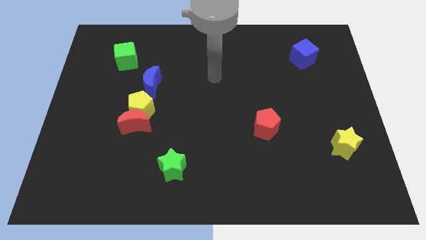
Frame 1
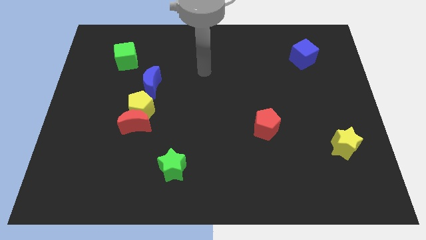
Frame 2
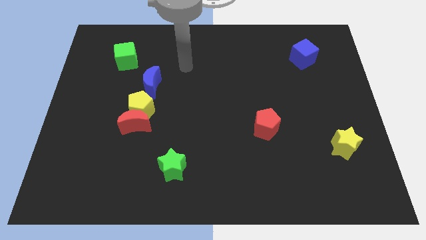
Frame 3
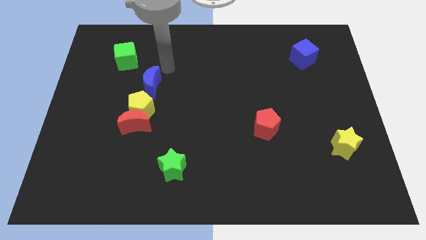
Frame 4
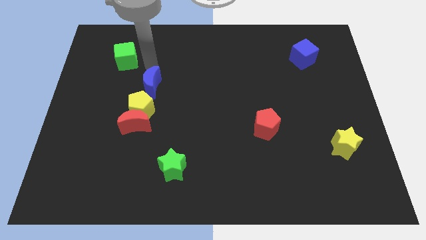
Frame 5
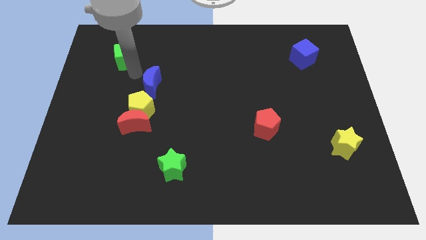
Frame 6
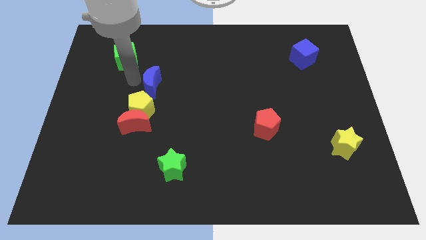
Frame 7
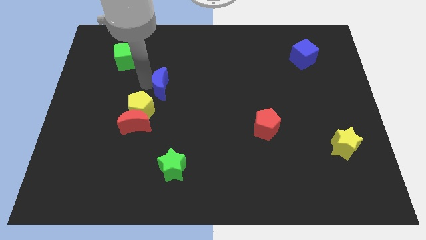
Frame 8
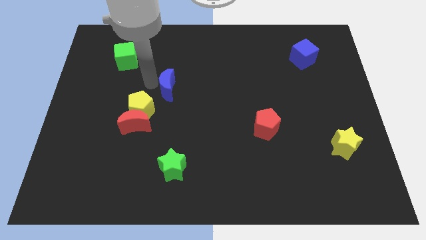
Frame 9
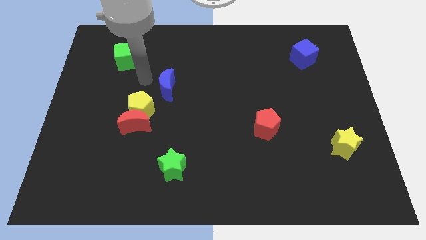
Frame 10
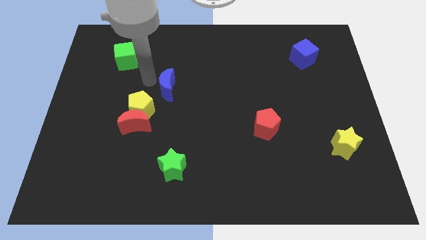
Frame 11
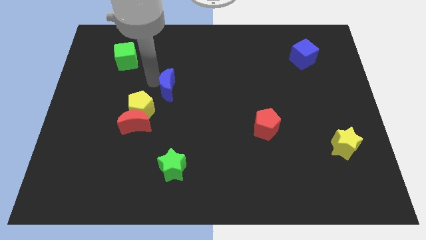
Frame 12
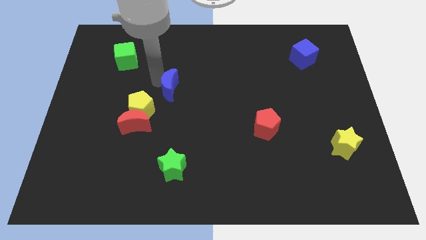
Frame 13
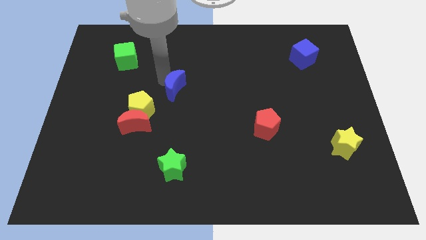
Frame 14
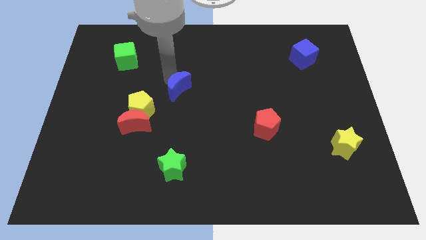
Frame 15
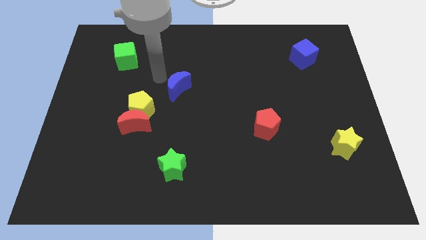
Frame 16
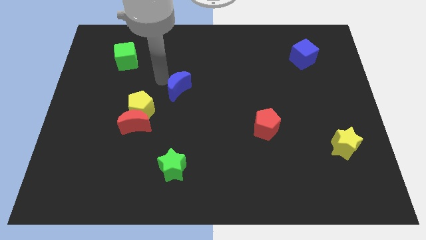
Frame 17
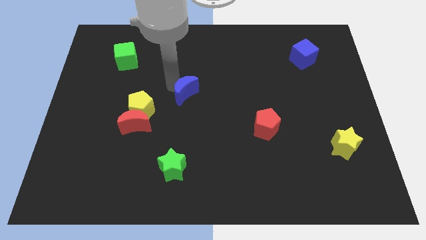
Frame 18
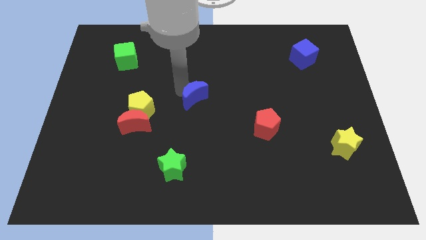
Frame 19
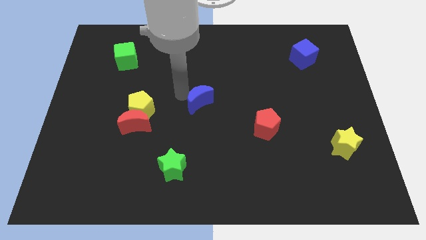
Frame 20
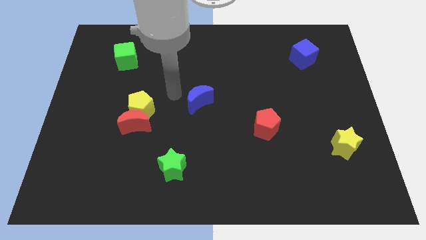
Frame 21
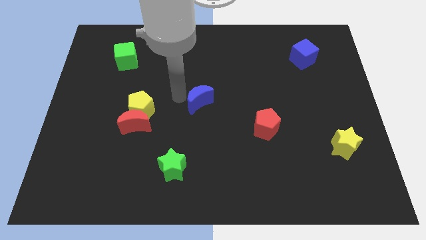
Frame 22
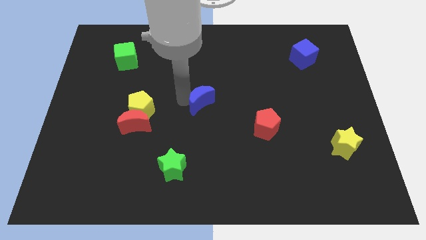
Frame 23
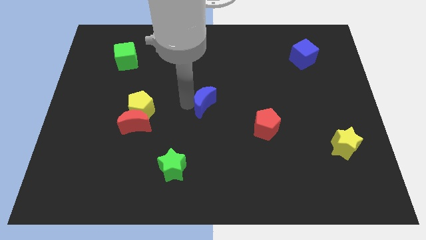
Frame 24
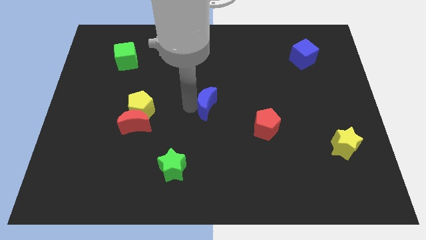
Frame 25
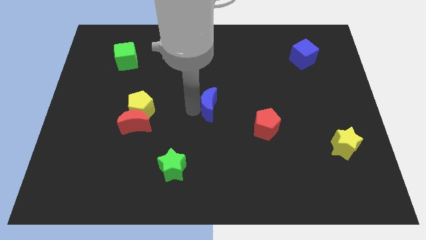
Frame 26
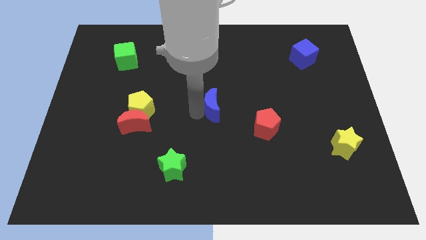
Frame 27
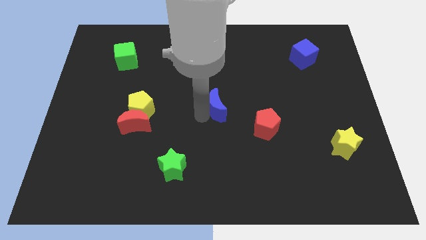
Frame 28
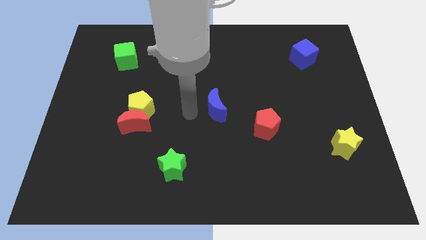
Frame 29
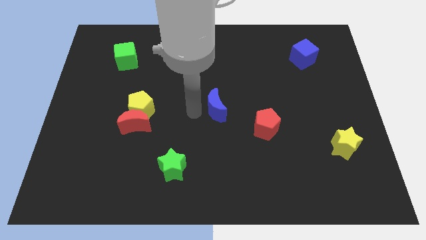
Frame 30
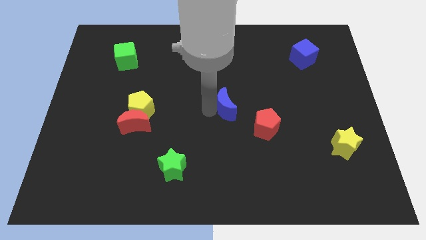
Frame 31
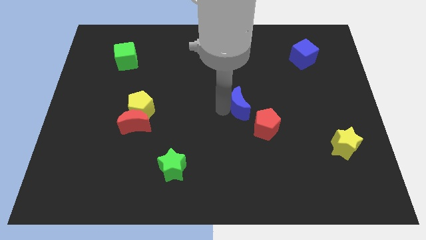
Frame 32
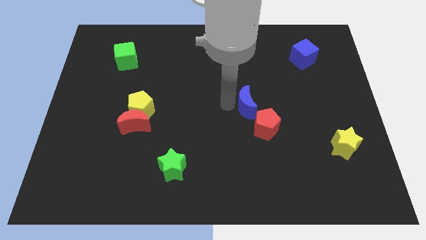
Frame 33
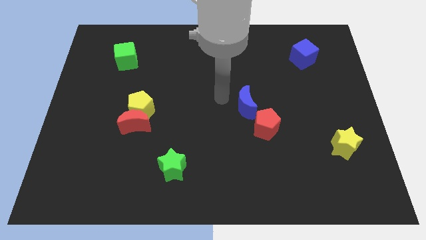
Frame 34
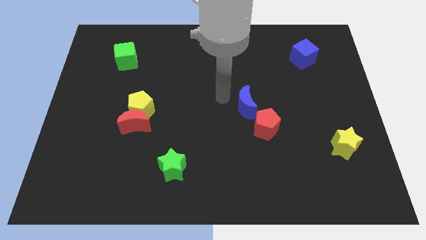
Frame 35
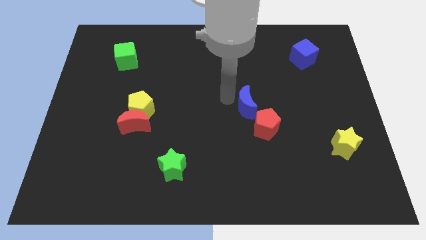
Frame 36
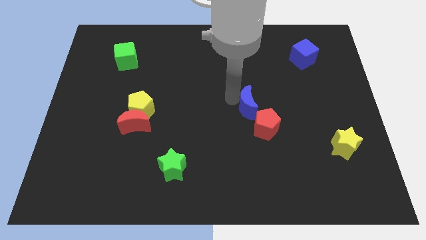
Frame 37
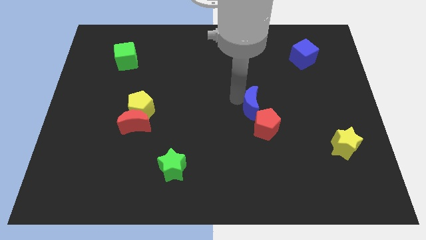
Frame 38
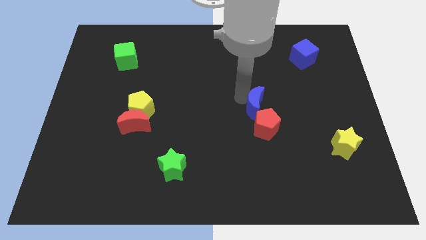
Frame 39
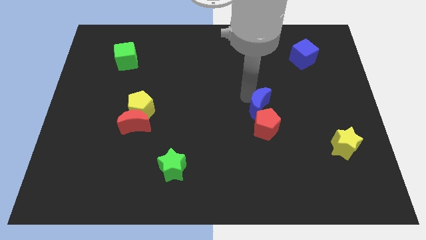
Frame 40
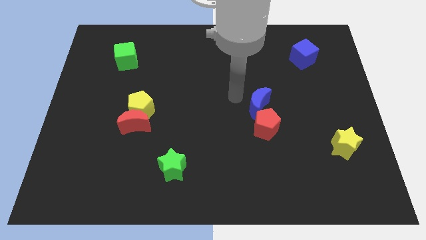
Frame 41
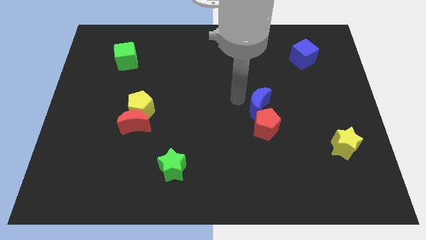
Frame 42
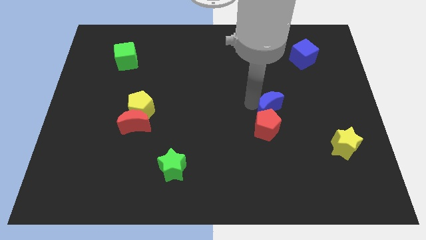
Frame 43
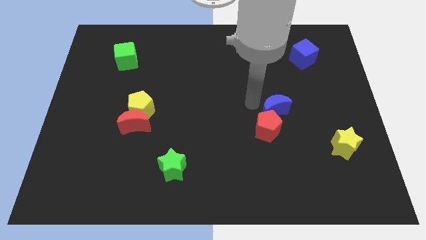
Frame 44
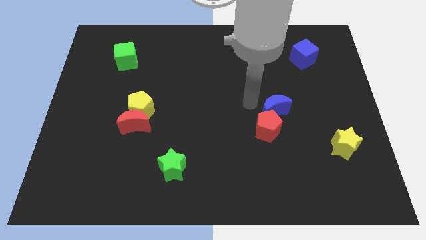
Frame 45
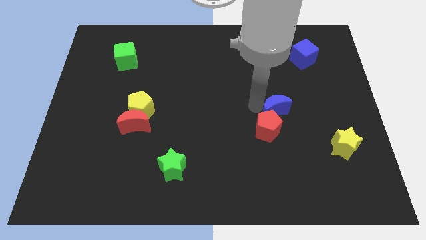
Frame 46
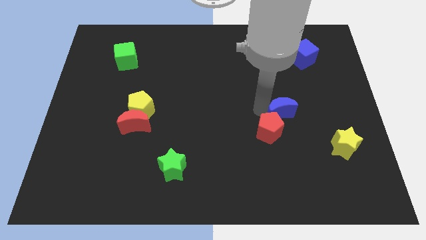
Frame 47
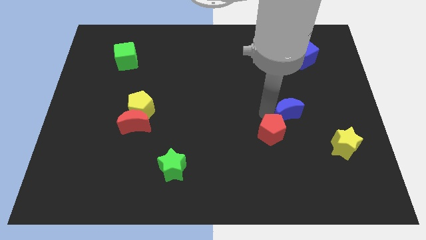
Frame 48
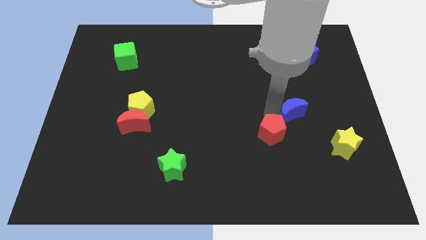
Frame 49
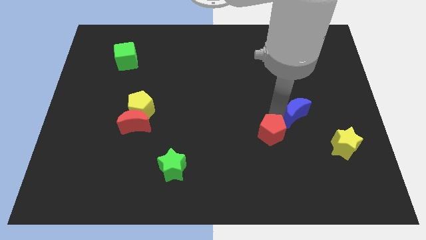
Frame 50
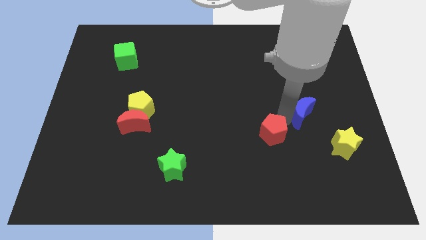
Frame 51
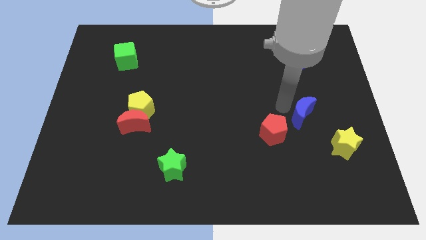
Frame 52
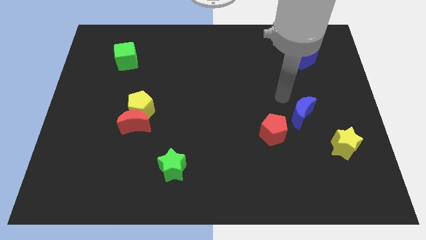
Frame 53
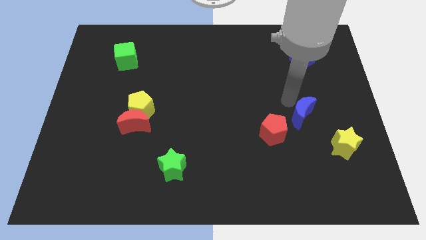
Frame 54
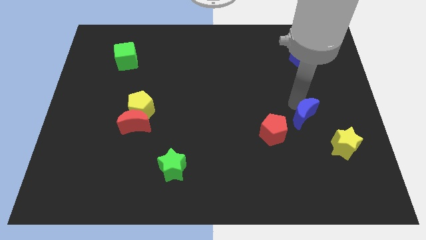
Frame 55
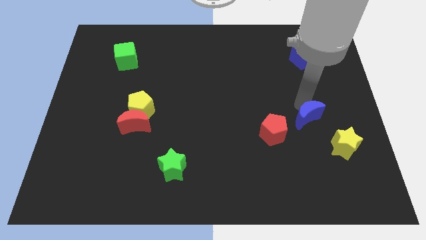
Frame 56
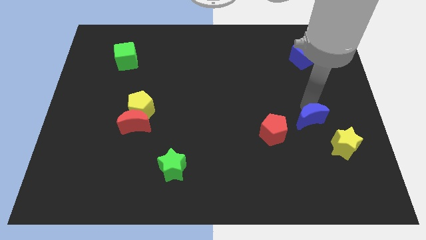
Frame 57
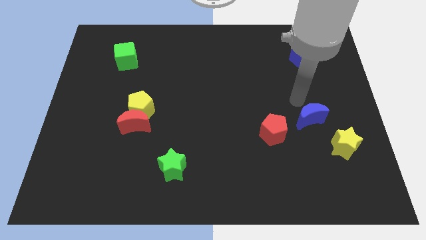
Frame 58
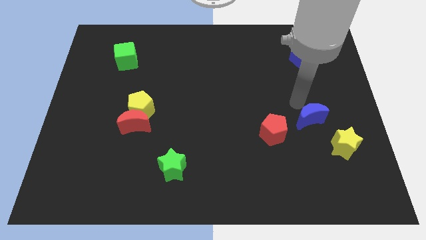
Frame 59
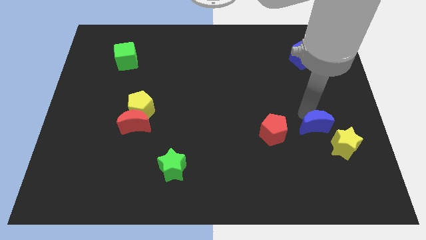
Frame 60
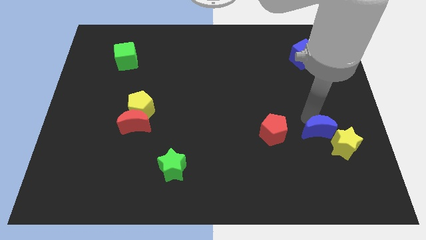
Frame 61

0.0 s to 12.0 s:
slide the blue moon towards the yellow star
